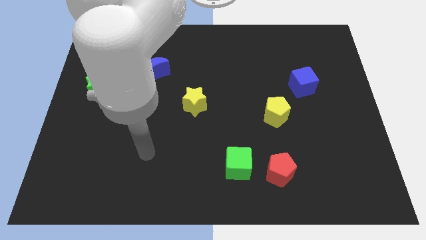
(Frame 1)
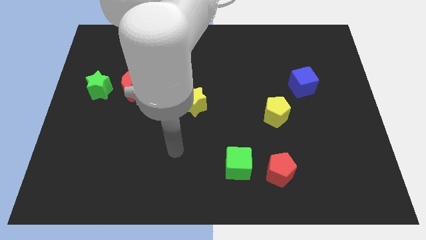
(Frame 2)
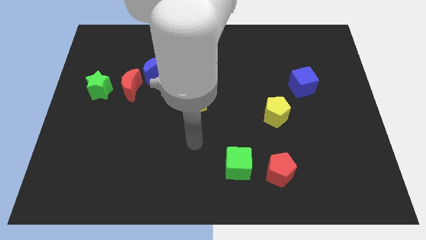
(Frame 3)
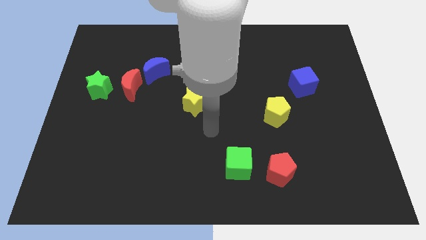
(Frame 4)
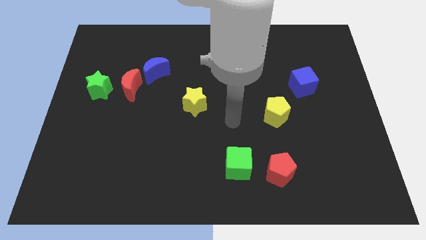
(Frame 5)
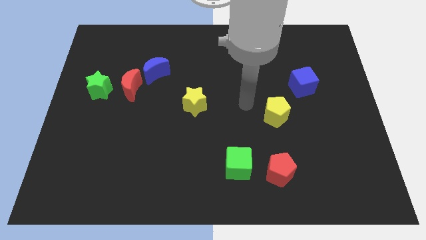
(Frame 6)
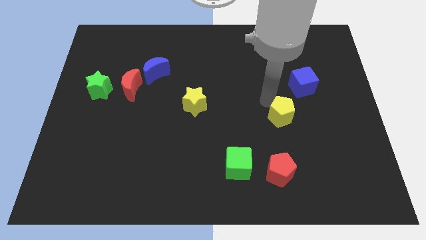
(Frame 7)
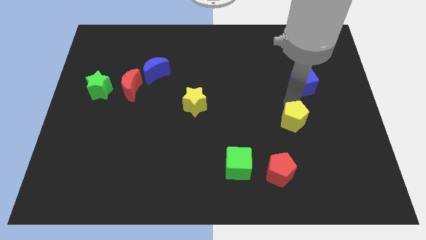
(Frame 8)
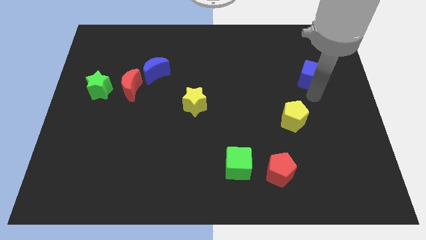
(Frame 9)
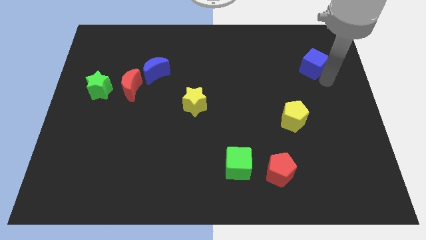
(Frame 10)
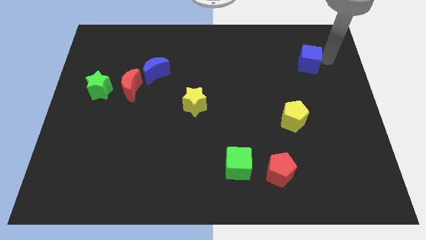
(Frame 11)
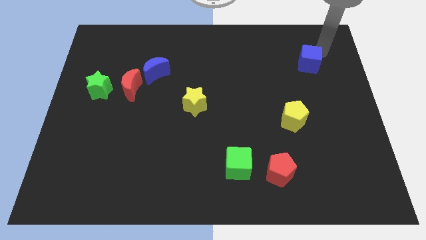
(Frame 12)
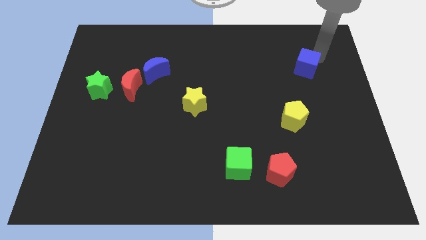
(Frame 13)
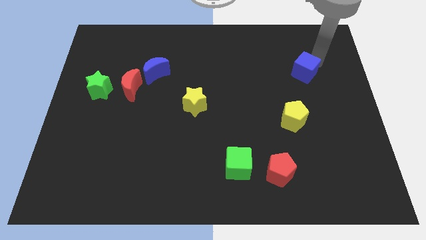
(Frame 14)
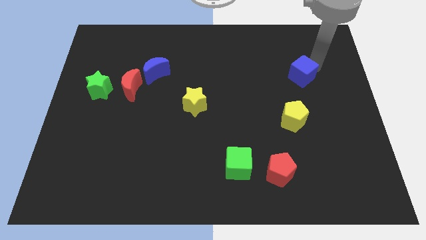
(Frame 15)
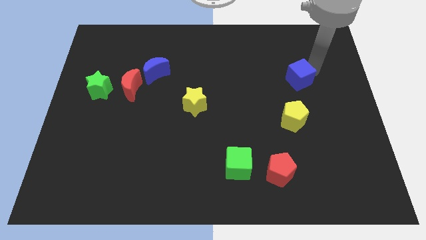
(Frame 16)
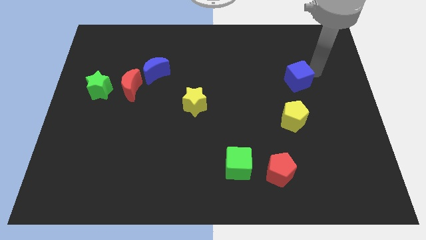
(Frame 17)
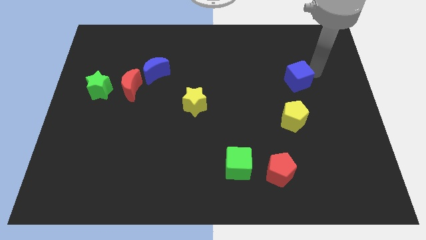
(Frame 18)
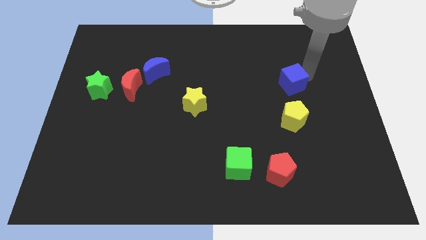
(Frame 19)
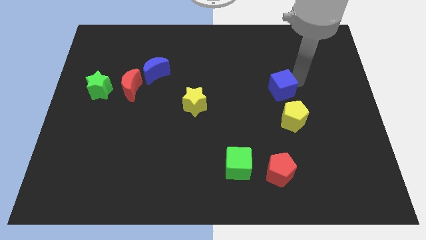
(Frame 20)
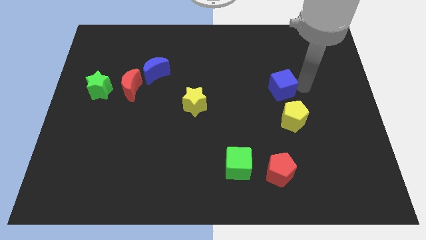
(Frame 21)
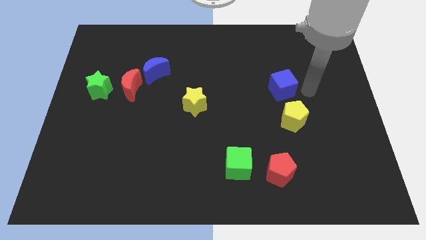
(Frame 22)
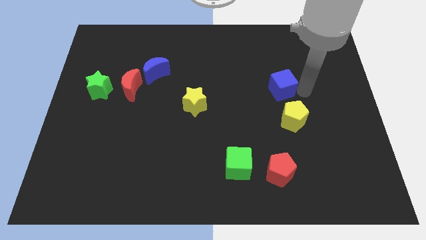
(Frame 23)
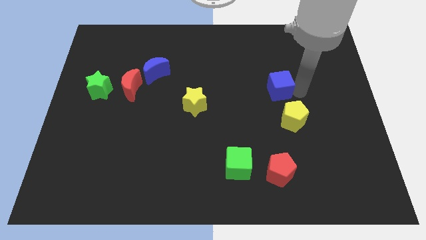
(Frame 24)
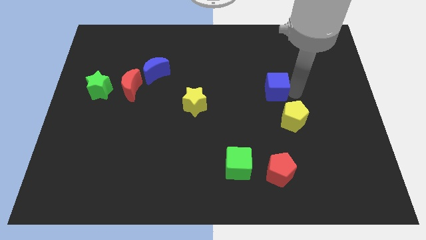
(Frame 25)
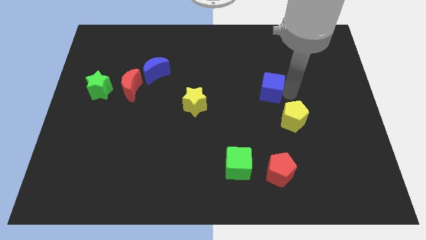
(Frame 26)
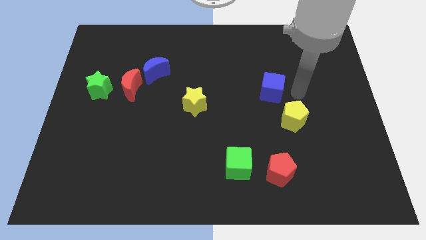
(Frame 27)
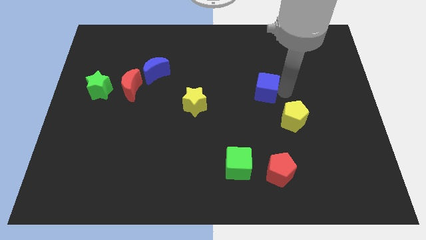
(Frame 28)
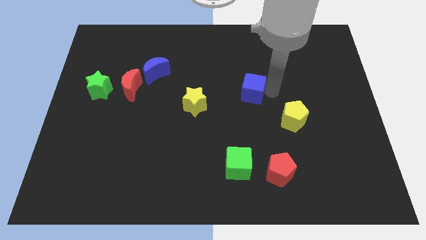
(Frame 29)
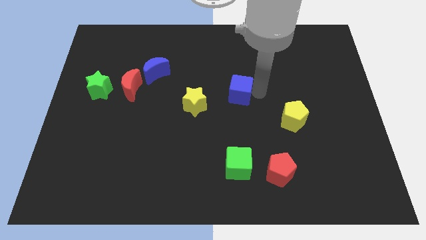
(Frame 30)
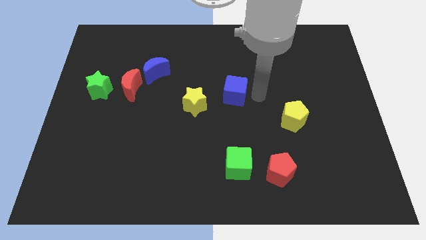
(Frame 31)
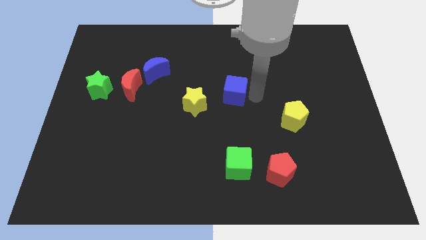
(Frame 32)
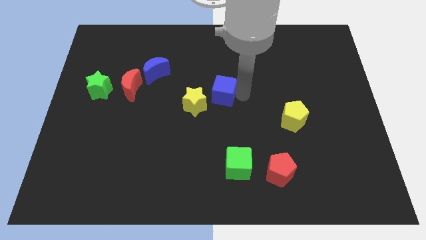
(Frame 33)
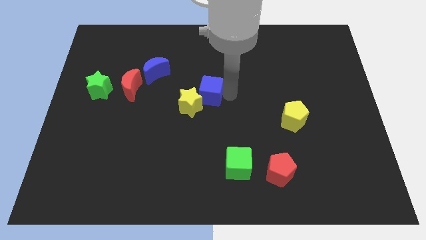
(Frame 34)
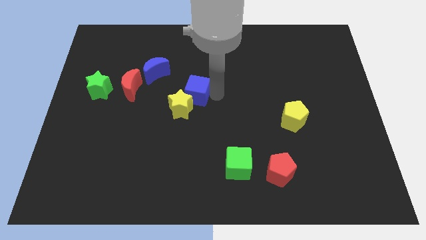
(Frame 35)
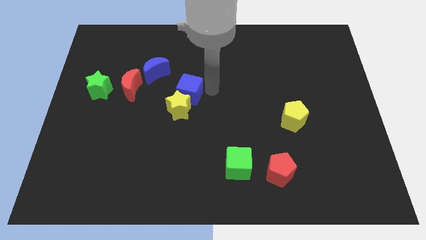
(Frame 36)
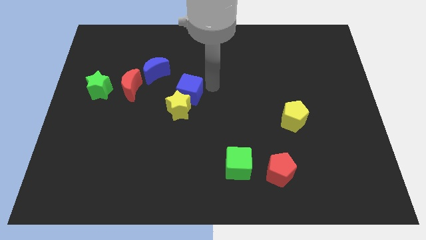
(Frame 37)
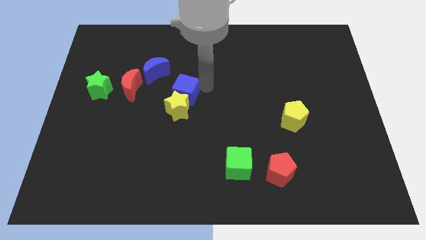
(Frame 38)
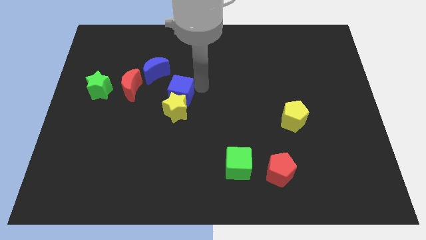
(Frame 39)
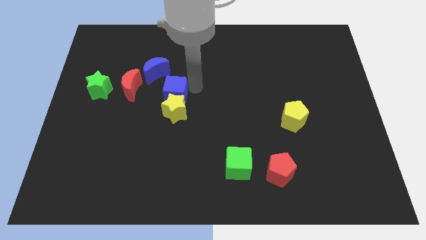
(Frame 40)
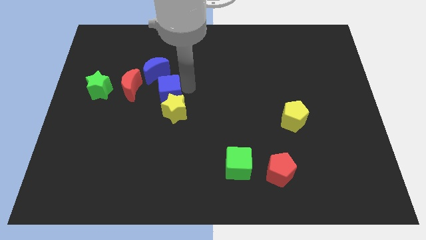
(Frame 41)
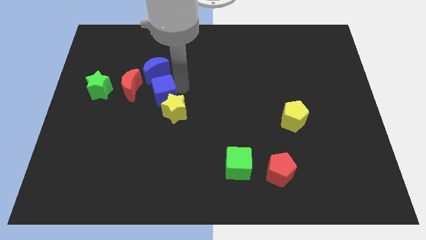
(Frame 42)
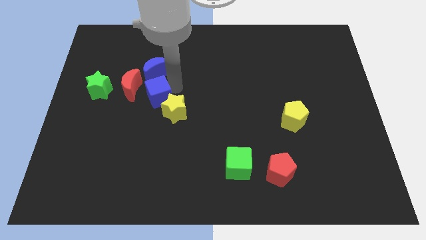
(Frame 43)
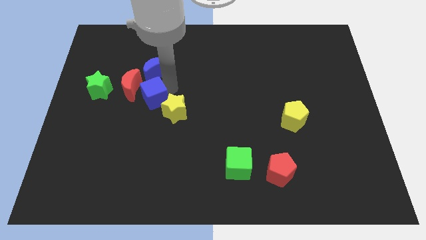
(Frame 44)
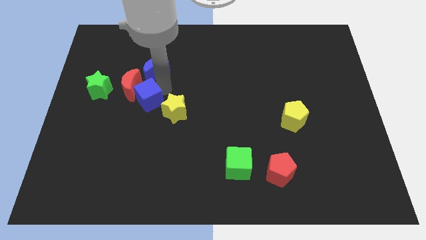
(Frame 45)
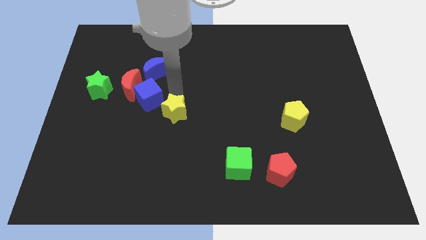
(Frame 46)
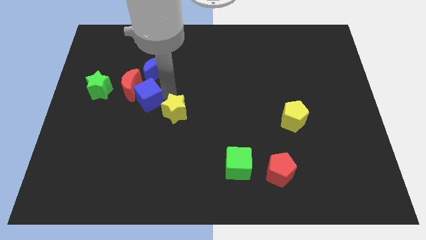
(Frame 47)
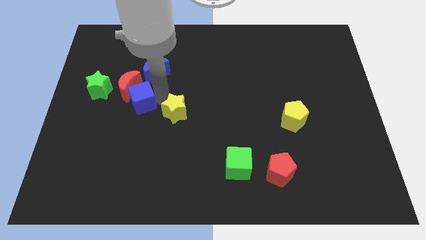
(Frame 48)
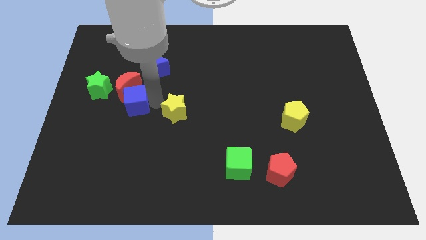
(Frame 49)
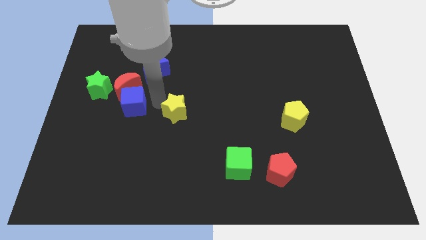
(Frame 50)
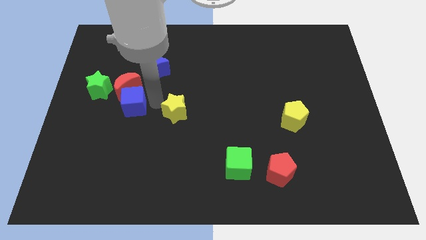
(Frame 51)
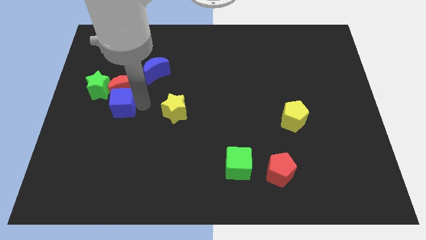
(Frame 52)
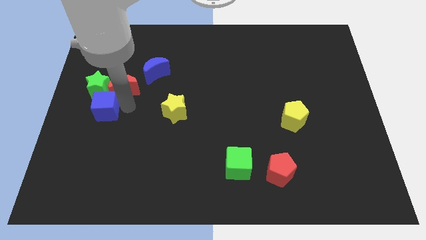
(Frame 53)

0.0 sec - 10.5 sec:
slide the blue cube to the left side

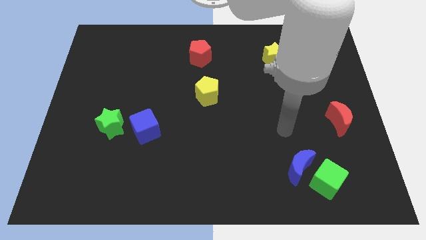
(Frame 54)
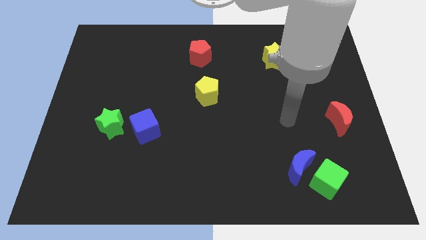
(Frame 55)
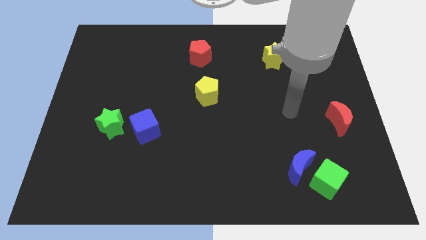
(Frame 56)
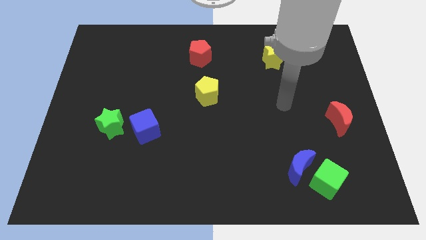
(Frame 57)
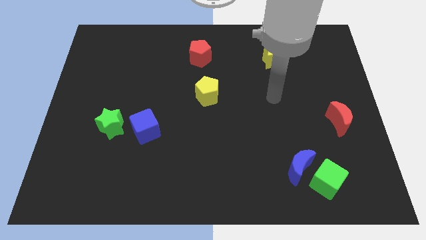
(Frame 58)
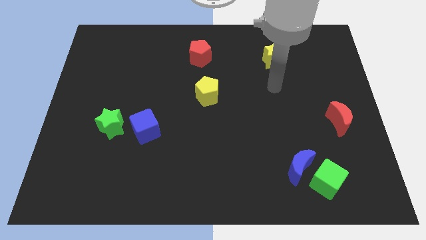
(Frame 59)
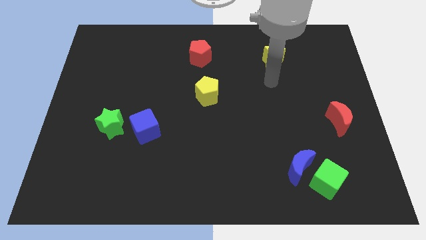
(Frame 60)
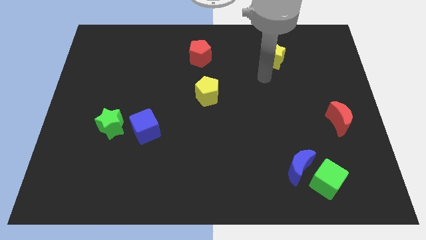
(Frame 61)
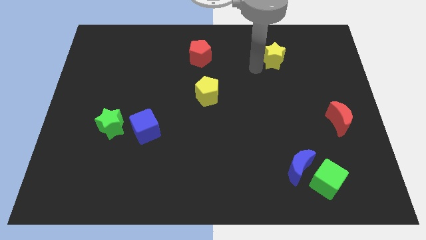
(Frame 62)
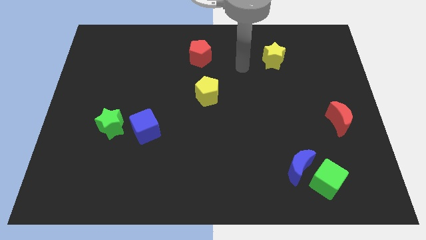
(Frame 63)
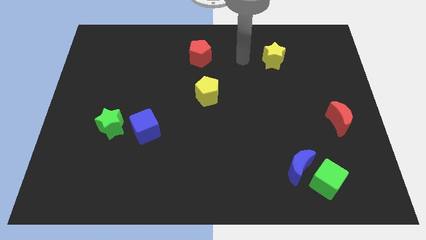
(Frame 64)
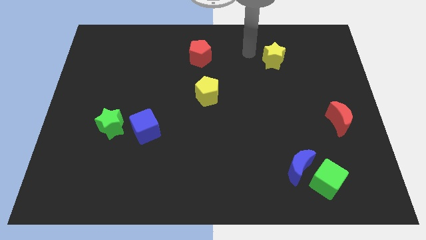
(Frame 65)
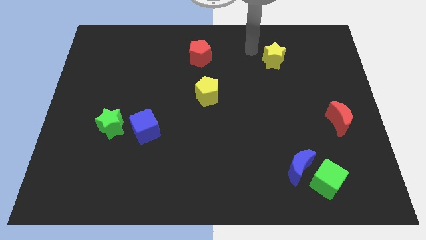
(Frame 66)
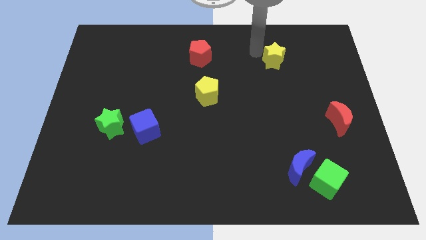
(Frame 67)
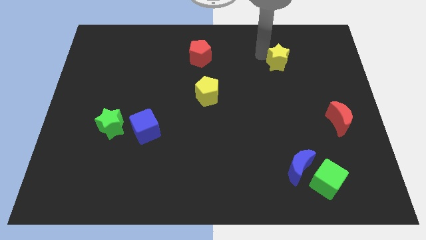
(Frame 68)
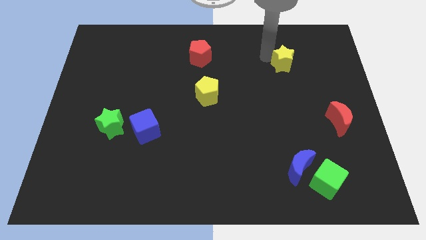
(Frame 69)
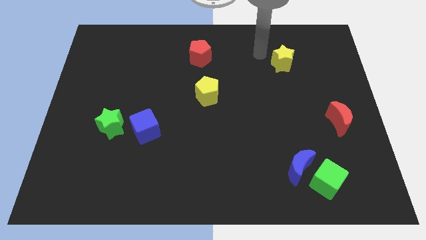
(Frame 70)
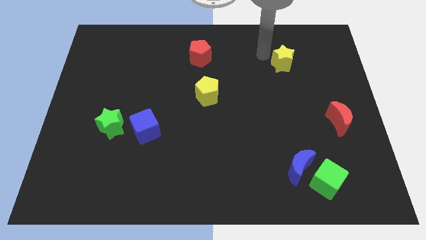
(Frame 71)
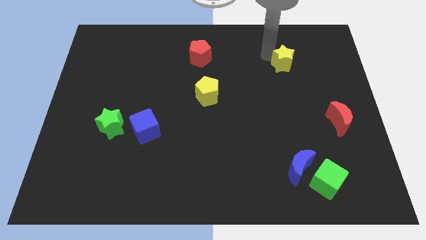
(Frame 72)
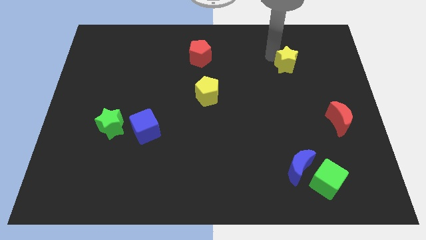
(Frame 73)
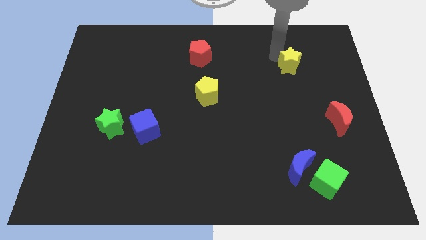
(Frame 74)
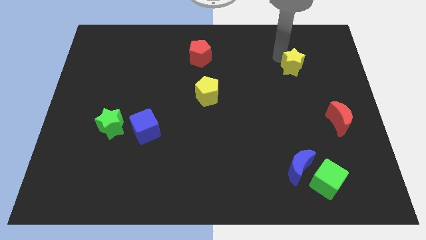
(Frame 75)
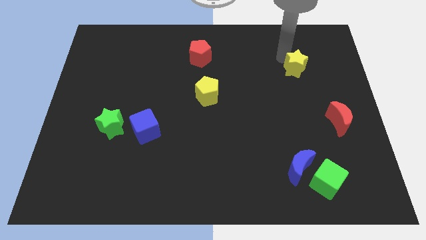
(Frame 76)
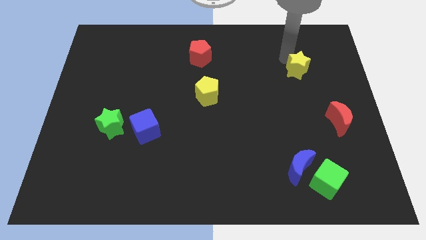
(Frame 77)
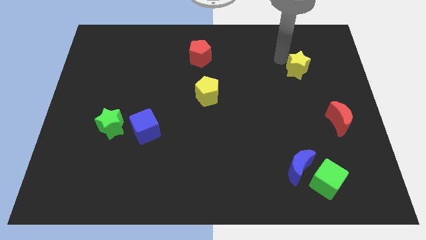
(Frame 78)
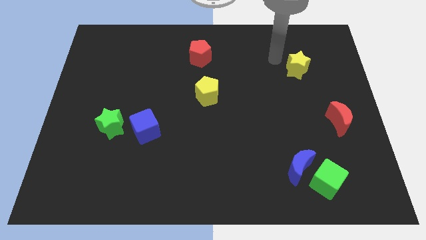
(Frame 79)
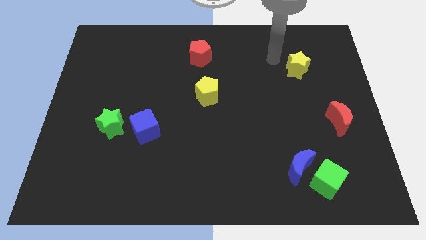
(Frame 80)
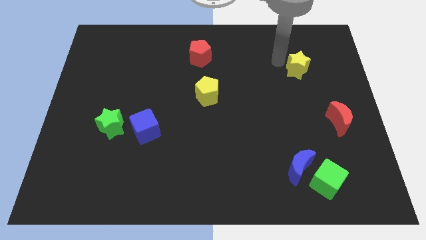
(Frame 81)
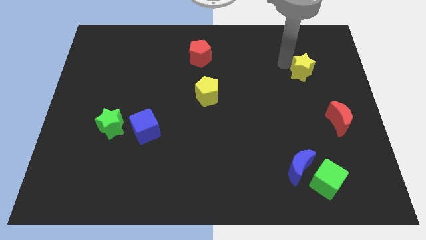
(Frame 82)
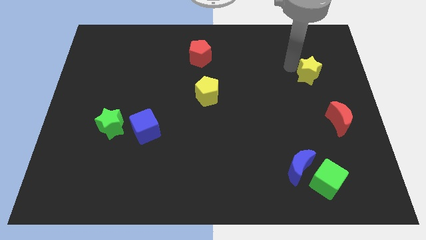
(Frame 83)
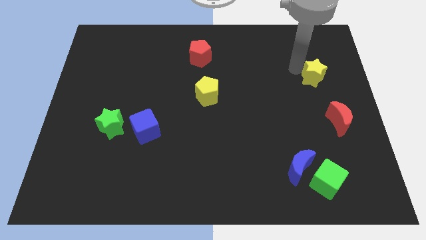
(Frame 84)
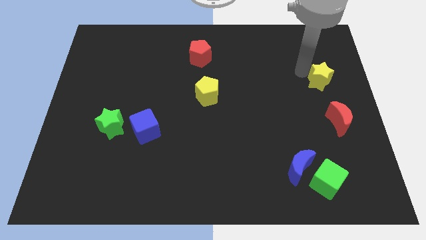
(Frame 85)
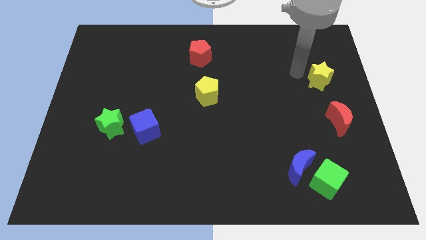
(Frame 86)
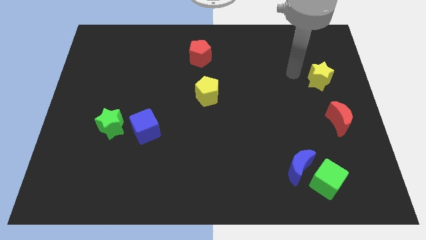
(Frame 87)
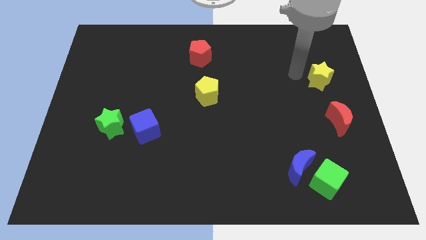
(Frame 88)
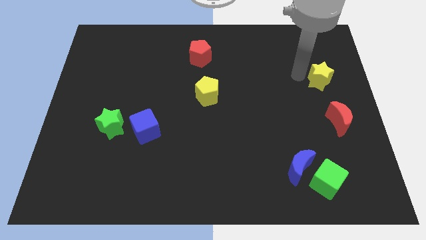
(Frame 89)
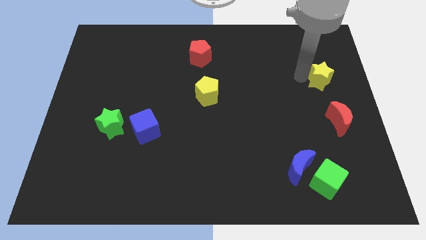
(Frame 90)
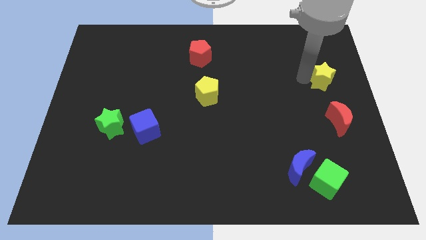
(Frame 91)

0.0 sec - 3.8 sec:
put the yellow star to the right side of the board
